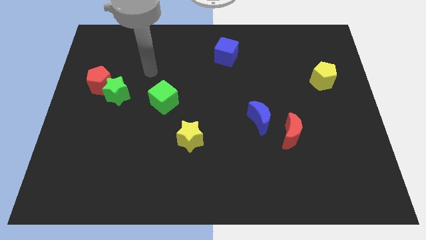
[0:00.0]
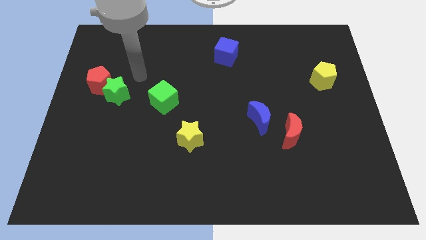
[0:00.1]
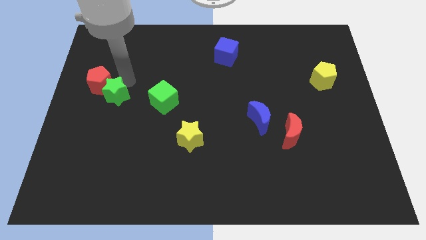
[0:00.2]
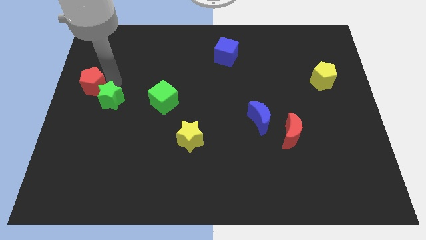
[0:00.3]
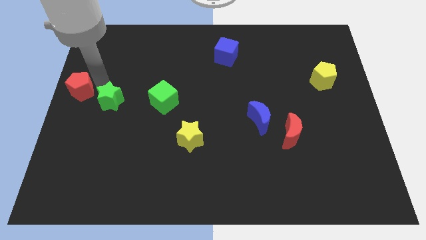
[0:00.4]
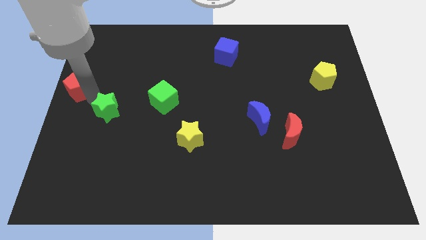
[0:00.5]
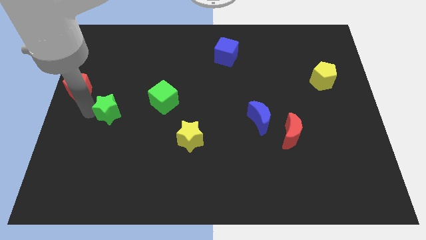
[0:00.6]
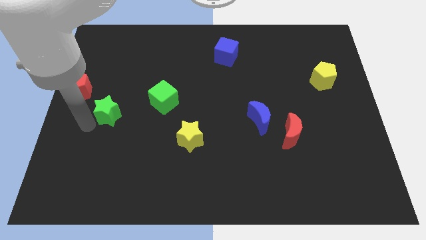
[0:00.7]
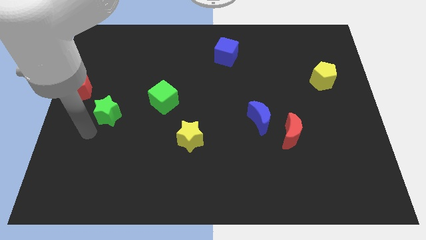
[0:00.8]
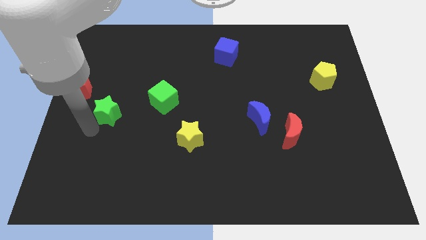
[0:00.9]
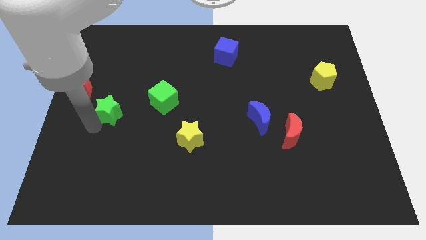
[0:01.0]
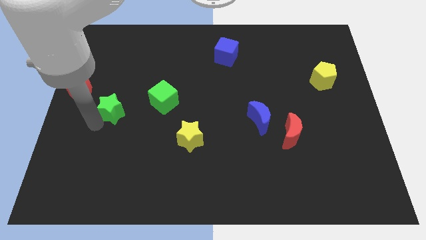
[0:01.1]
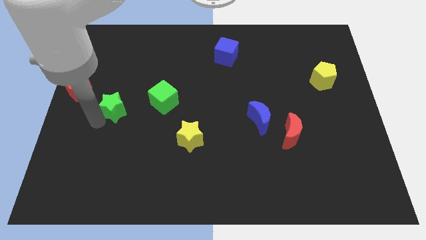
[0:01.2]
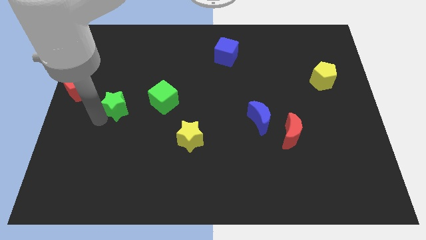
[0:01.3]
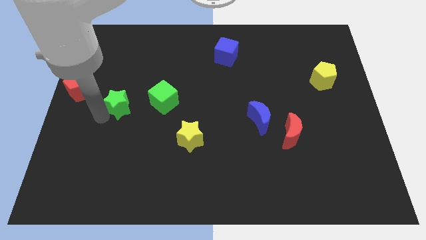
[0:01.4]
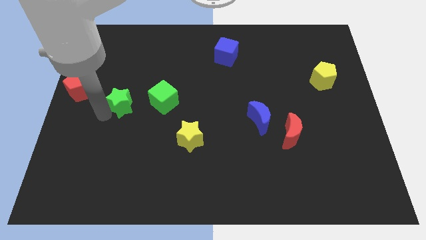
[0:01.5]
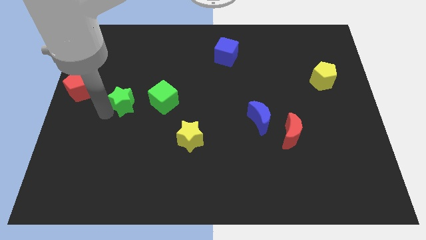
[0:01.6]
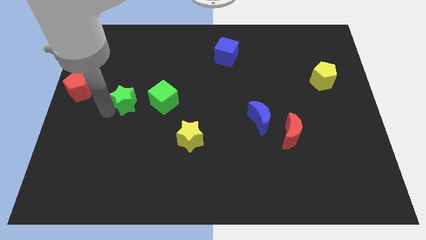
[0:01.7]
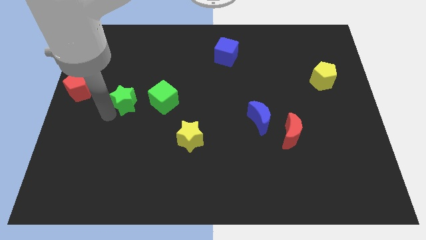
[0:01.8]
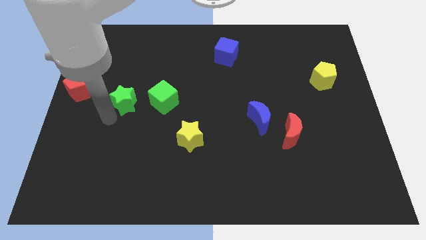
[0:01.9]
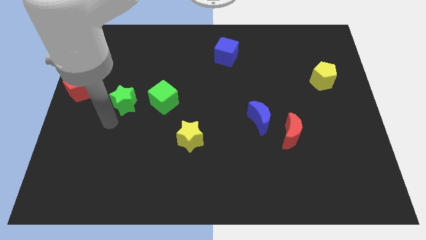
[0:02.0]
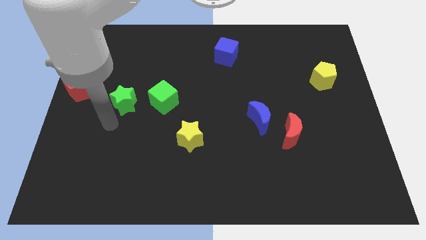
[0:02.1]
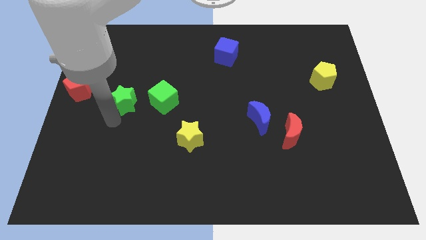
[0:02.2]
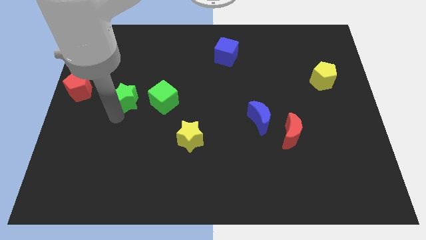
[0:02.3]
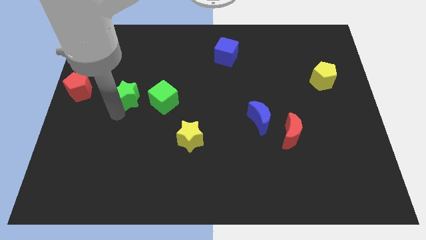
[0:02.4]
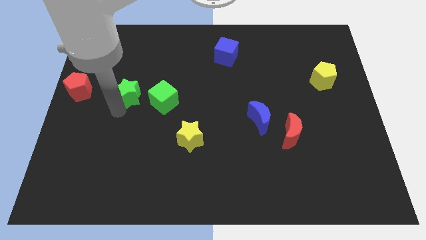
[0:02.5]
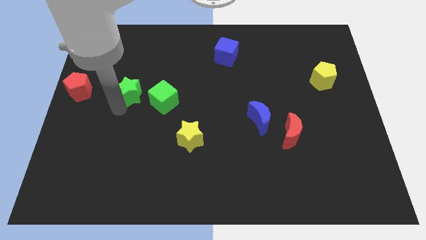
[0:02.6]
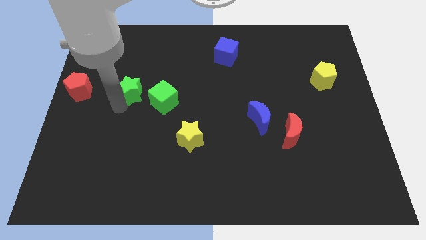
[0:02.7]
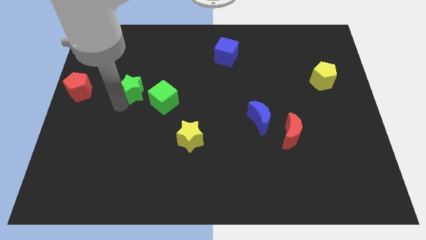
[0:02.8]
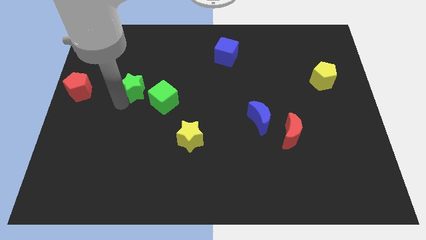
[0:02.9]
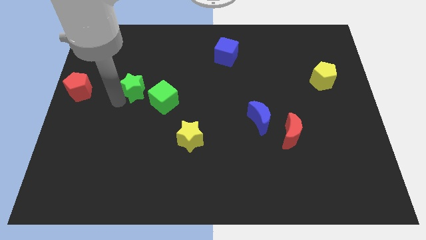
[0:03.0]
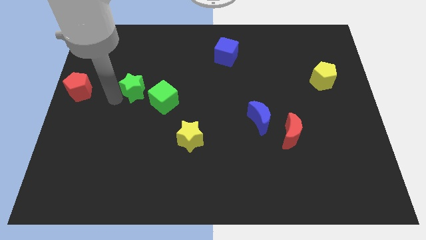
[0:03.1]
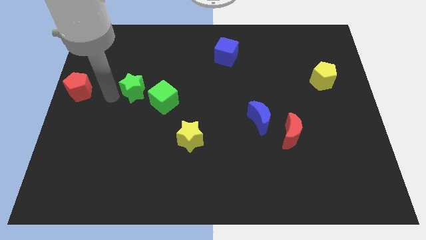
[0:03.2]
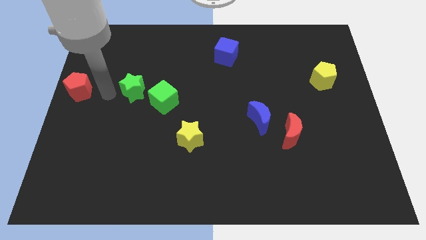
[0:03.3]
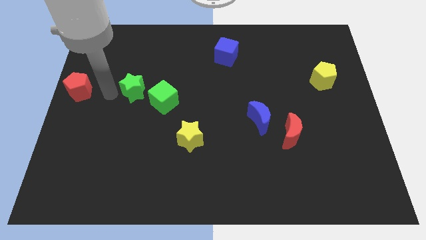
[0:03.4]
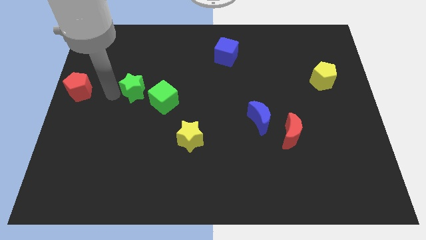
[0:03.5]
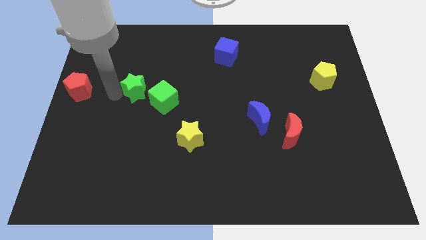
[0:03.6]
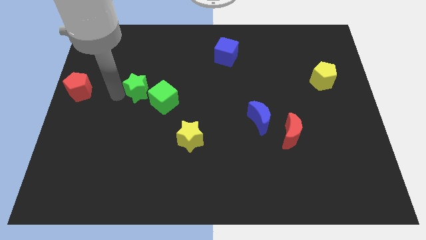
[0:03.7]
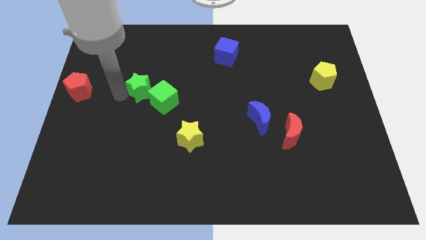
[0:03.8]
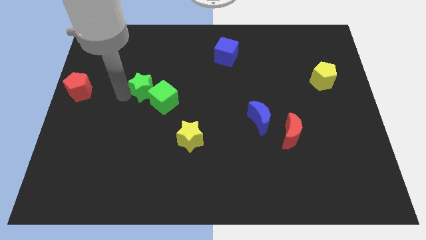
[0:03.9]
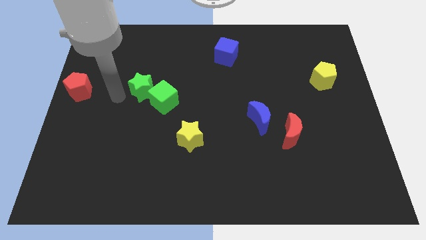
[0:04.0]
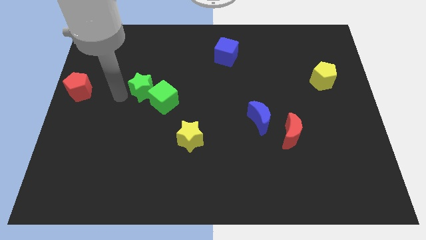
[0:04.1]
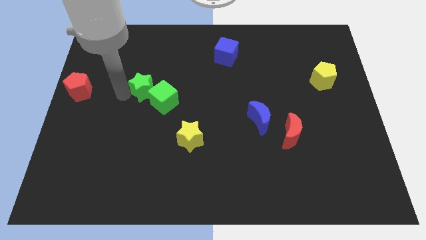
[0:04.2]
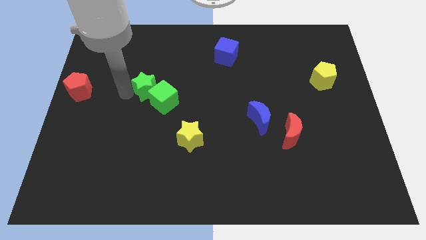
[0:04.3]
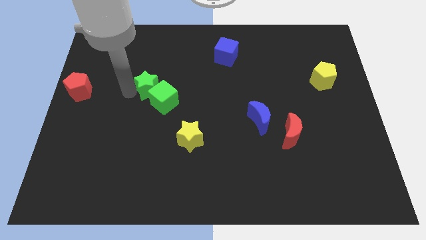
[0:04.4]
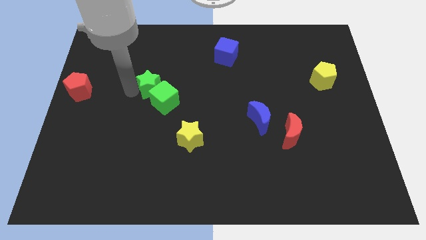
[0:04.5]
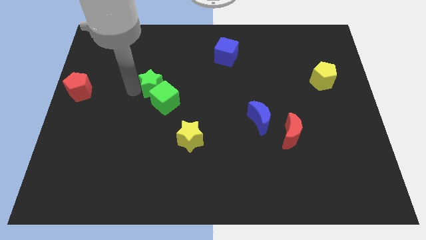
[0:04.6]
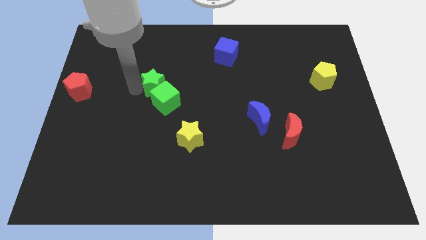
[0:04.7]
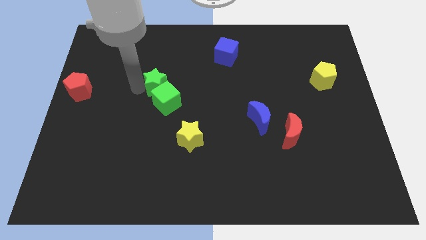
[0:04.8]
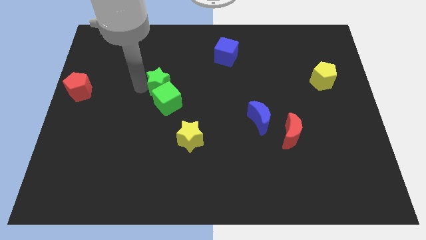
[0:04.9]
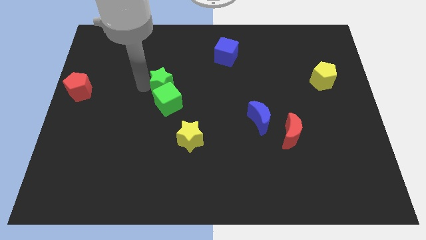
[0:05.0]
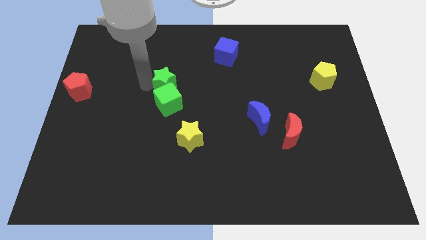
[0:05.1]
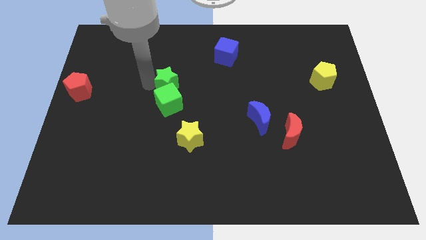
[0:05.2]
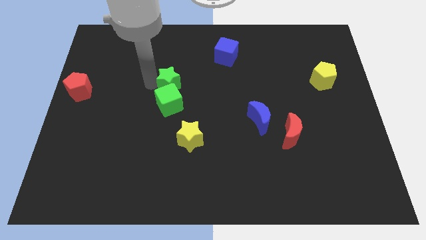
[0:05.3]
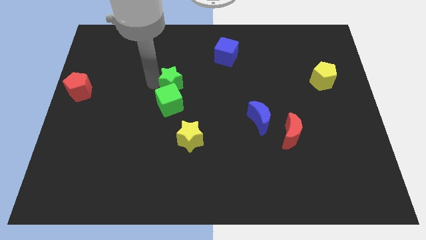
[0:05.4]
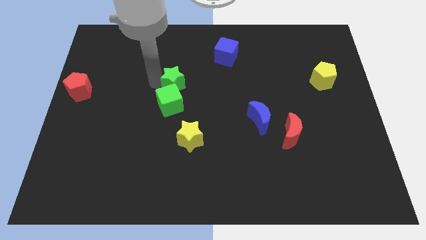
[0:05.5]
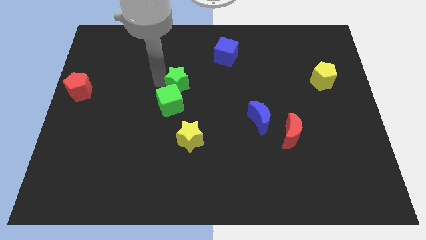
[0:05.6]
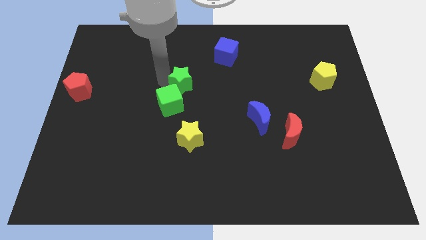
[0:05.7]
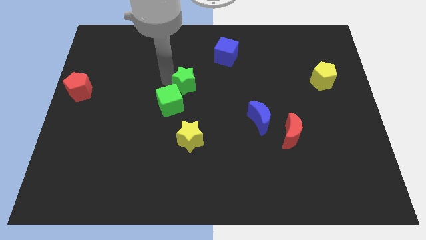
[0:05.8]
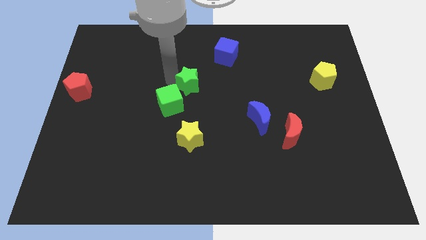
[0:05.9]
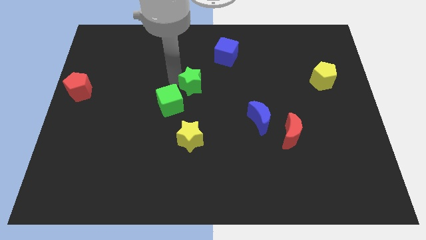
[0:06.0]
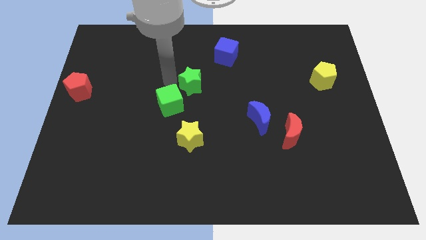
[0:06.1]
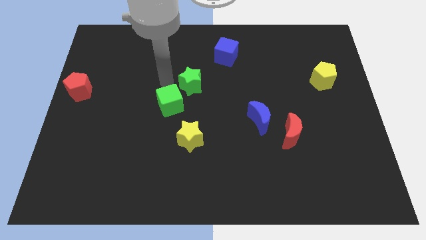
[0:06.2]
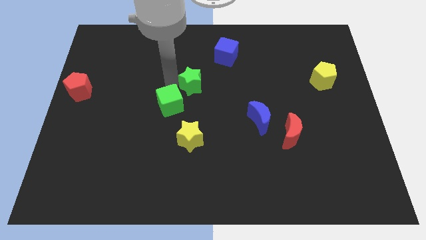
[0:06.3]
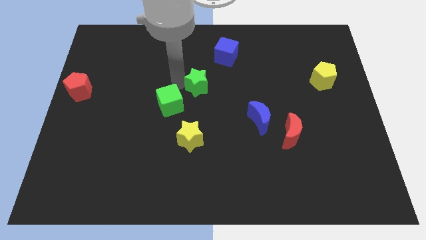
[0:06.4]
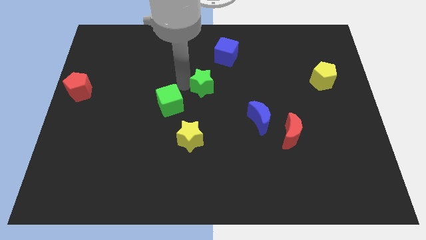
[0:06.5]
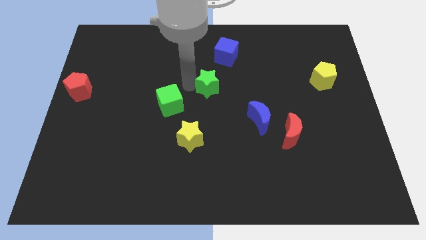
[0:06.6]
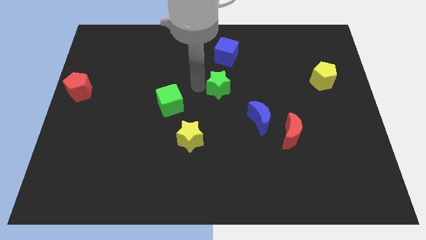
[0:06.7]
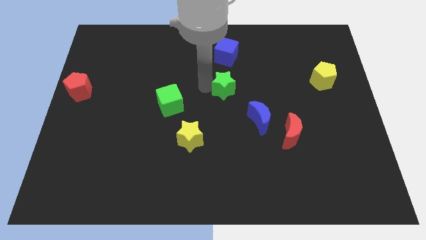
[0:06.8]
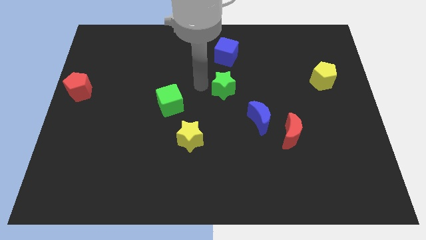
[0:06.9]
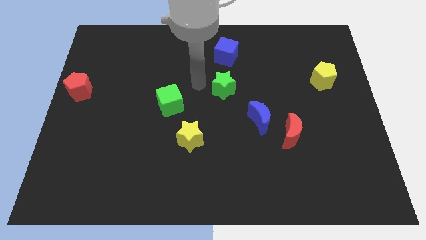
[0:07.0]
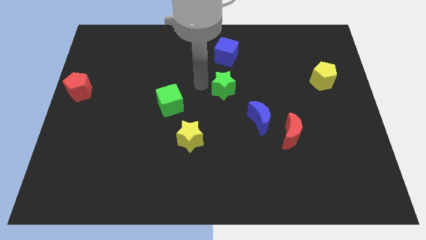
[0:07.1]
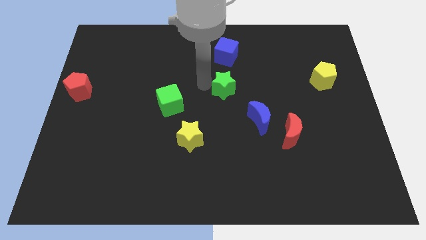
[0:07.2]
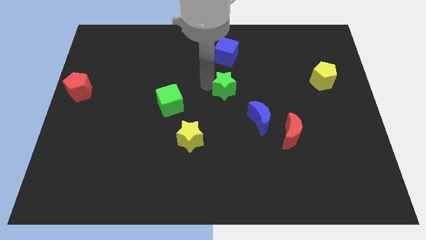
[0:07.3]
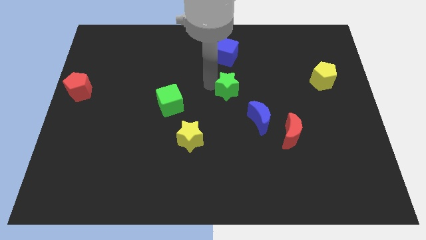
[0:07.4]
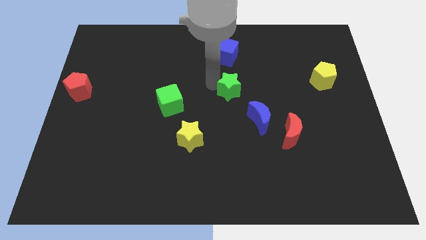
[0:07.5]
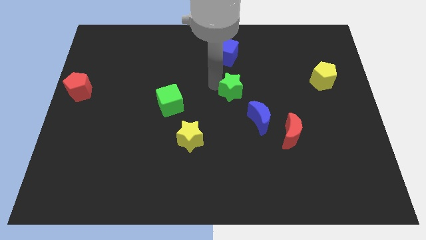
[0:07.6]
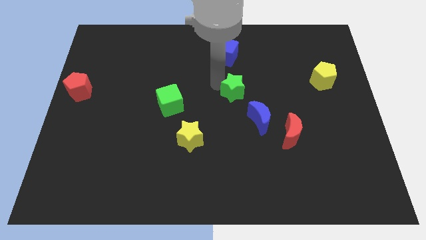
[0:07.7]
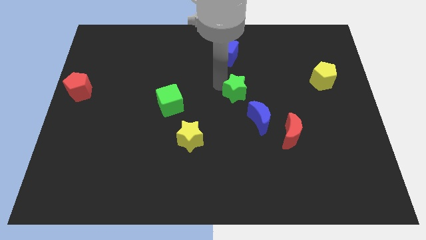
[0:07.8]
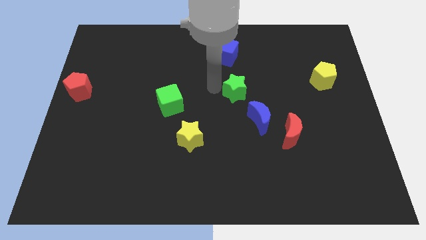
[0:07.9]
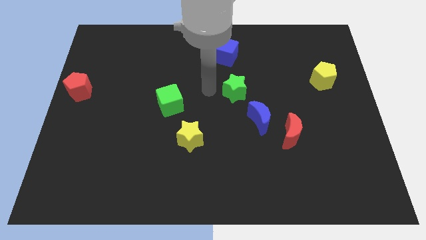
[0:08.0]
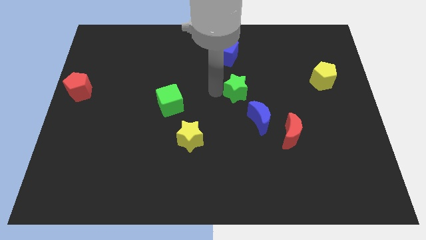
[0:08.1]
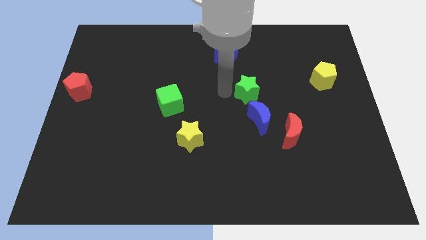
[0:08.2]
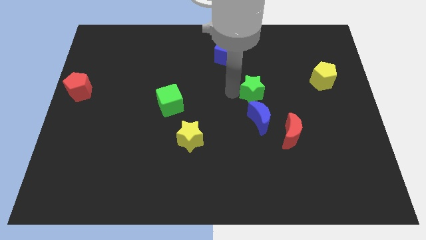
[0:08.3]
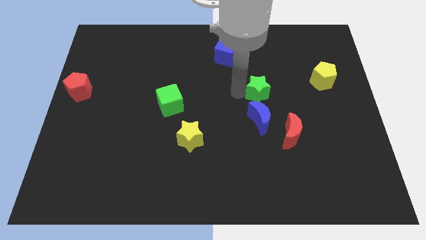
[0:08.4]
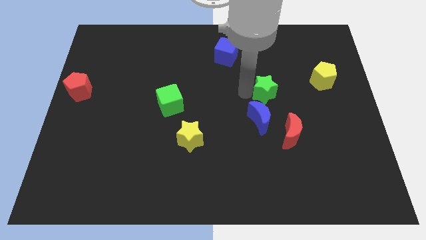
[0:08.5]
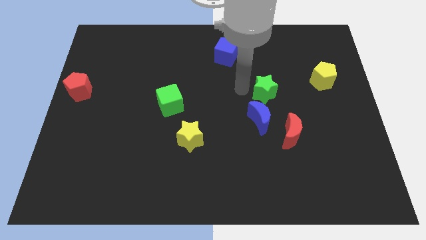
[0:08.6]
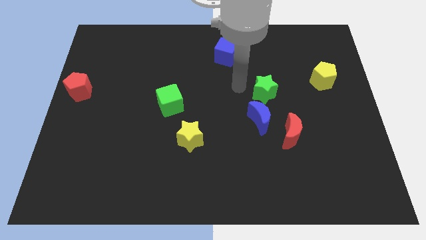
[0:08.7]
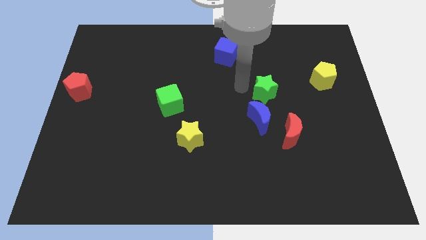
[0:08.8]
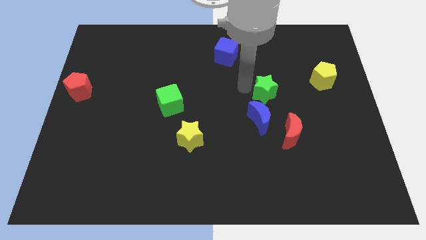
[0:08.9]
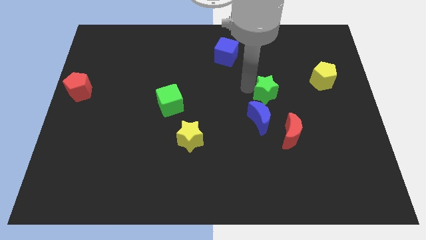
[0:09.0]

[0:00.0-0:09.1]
slide the green star above the red moon
